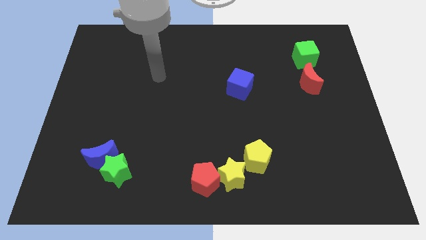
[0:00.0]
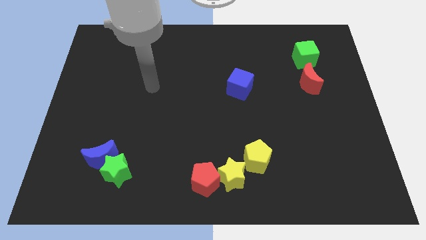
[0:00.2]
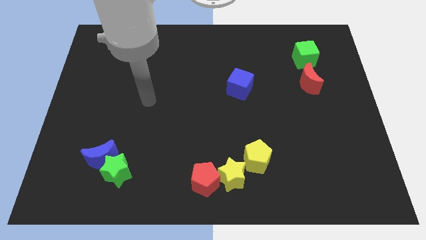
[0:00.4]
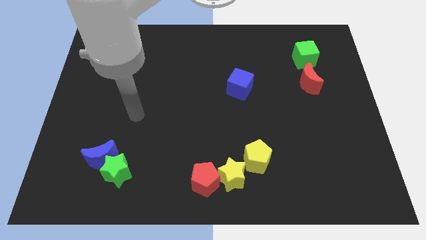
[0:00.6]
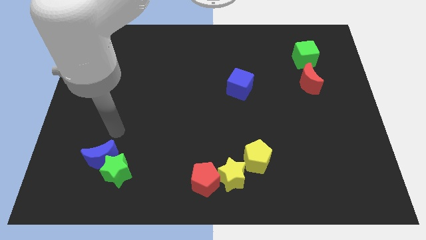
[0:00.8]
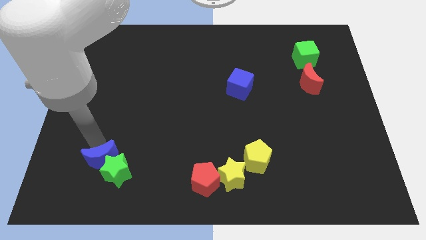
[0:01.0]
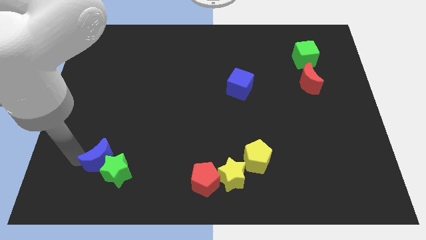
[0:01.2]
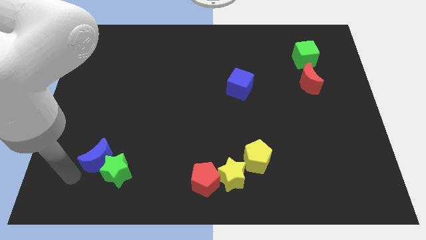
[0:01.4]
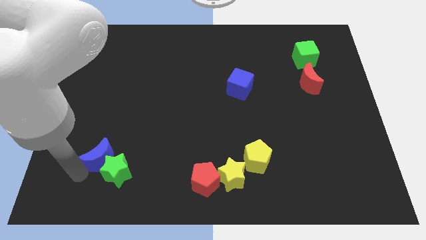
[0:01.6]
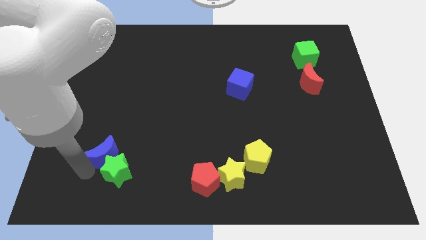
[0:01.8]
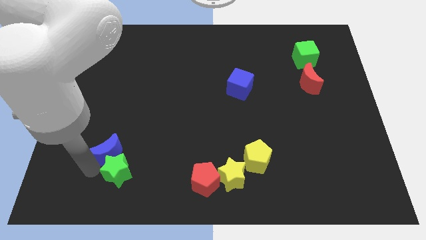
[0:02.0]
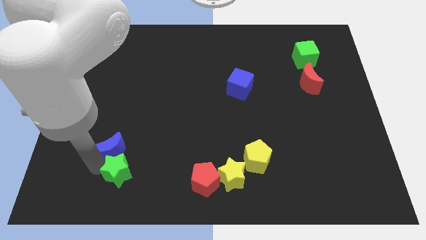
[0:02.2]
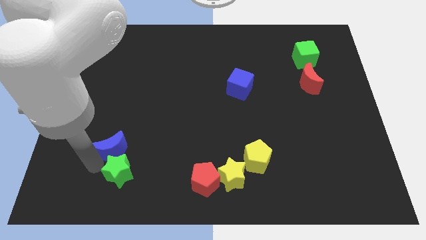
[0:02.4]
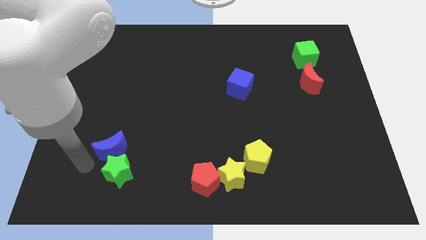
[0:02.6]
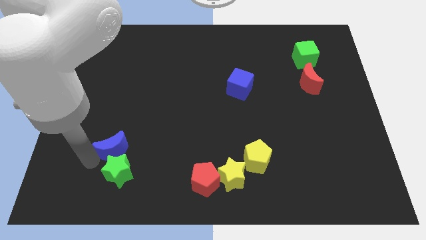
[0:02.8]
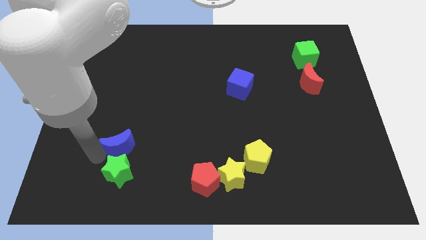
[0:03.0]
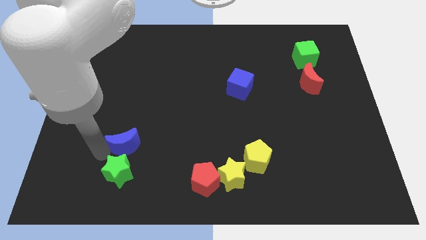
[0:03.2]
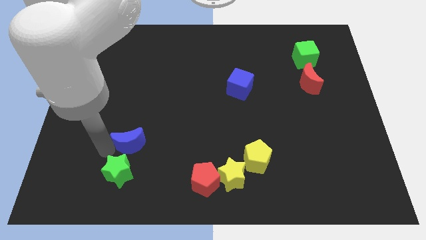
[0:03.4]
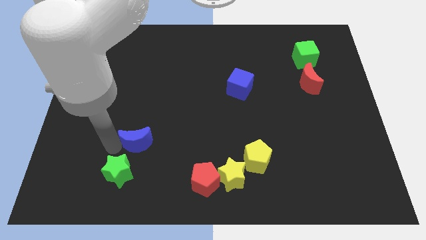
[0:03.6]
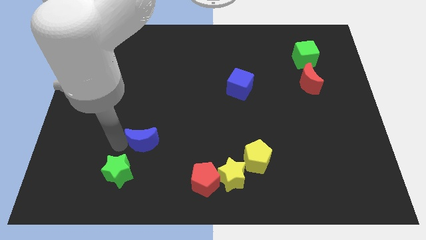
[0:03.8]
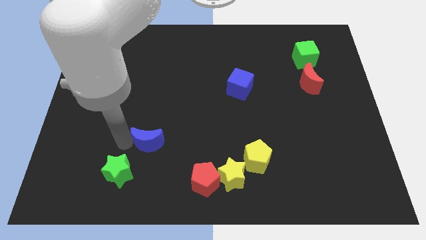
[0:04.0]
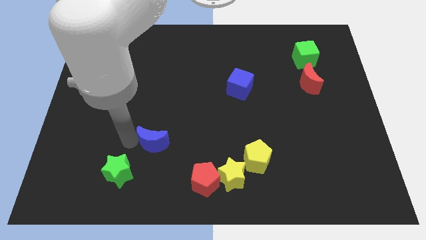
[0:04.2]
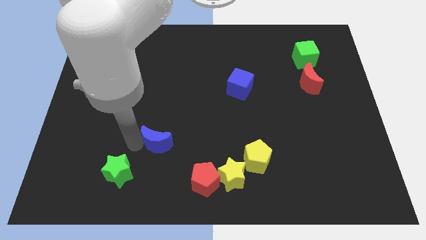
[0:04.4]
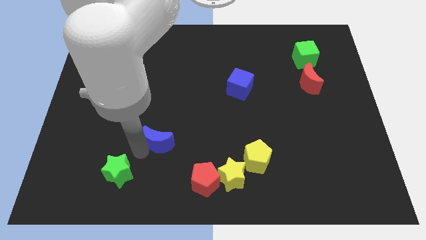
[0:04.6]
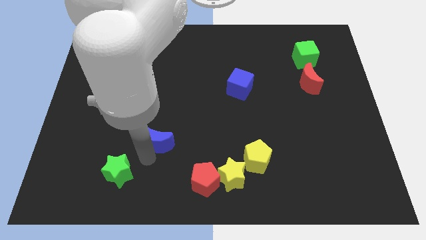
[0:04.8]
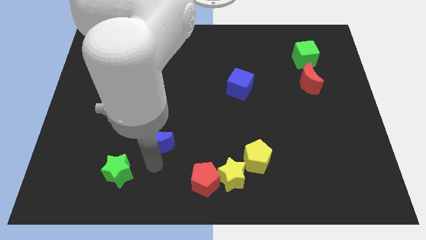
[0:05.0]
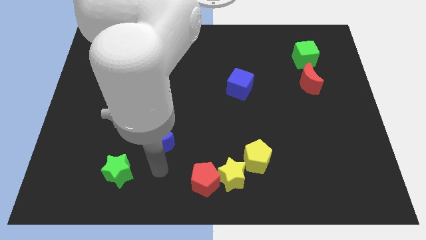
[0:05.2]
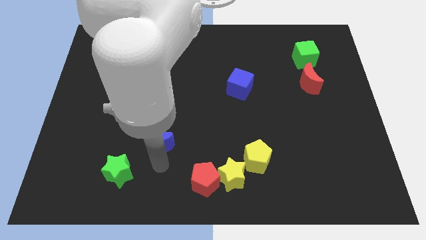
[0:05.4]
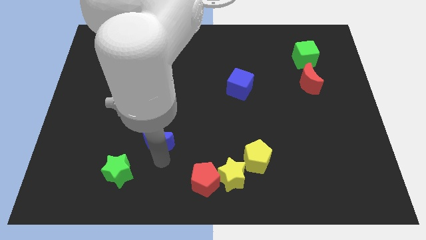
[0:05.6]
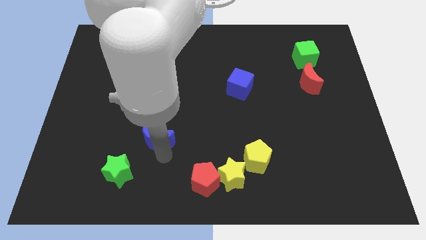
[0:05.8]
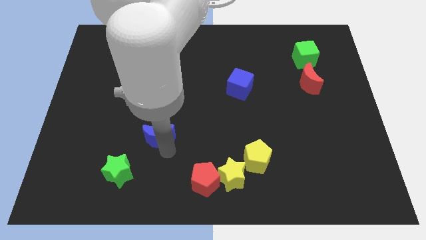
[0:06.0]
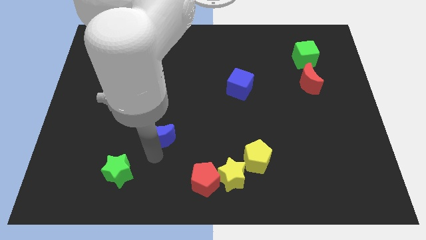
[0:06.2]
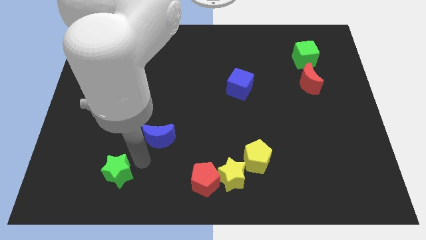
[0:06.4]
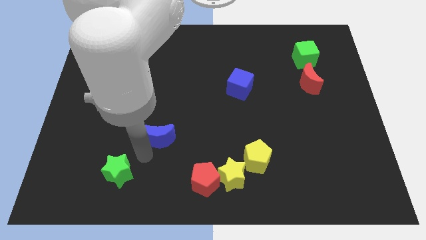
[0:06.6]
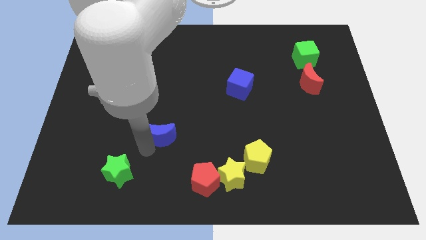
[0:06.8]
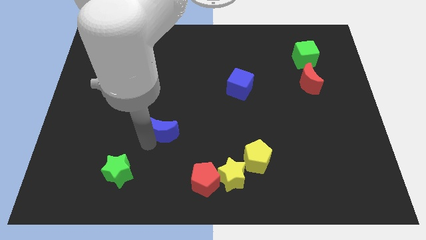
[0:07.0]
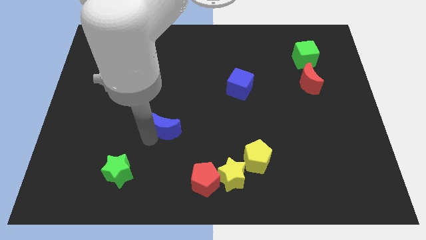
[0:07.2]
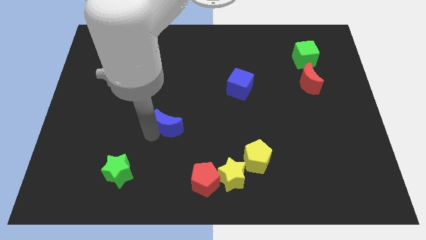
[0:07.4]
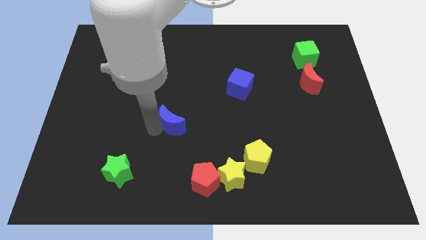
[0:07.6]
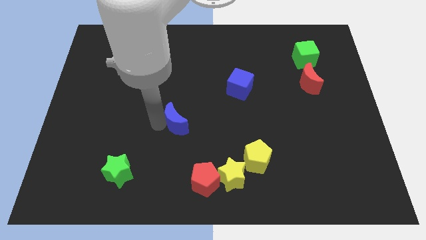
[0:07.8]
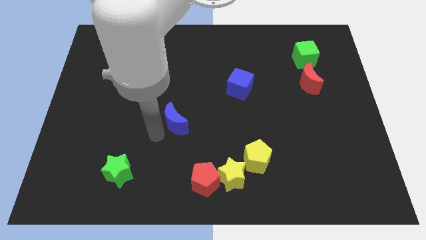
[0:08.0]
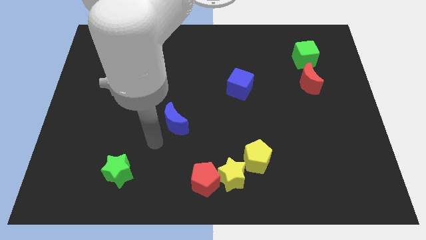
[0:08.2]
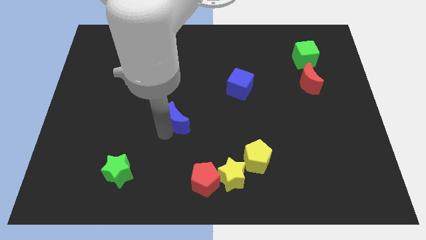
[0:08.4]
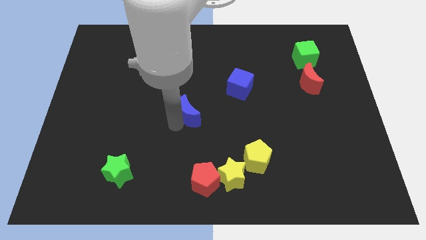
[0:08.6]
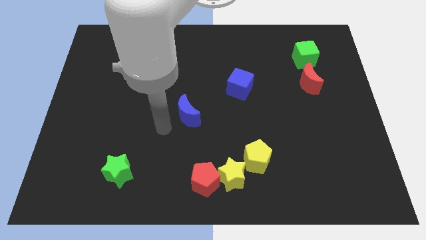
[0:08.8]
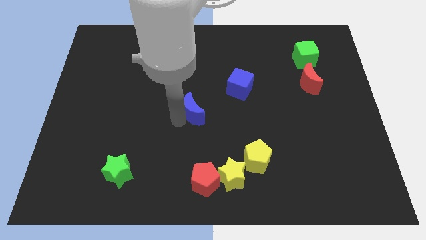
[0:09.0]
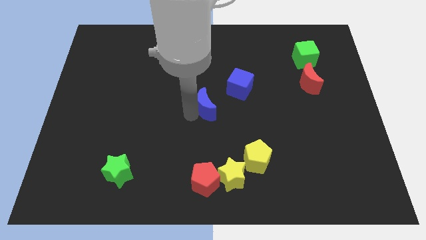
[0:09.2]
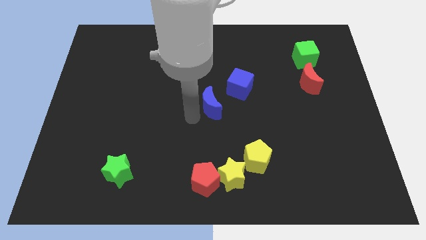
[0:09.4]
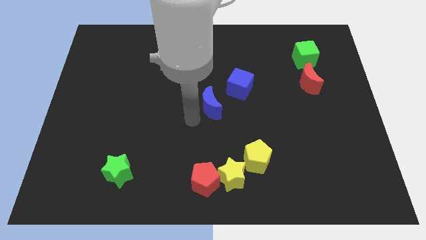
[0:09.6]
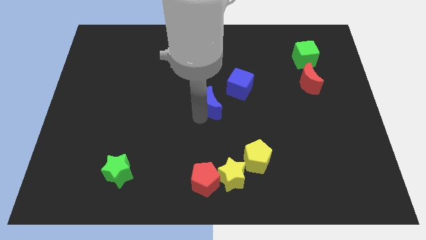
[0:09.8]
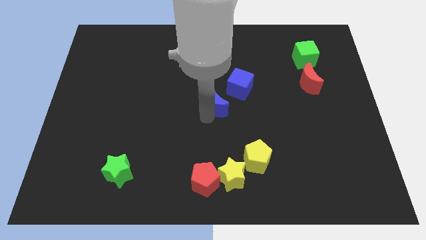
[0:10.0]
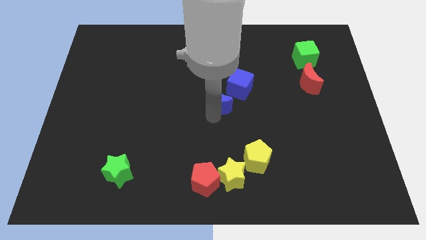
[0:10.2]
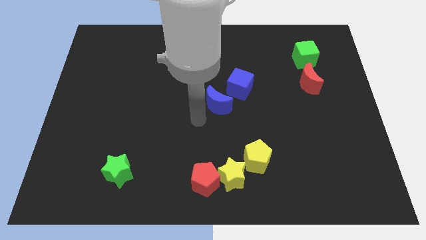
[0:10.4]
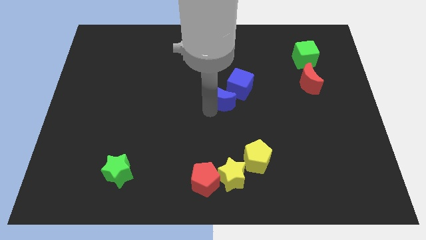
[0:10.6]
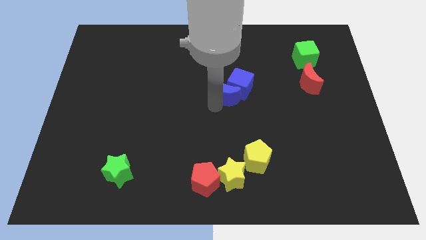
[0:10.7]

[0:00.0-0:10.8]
put the blue moon to the blue cube

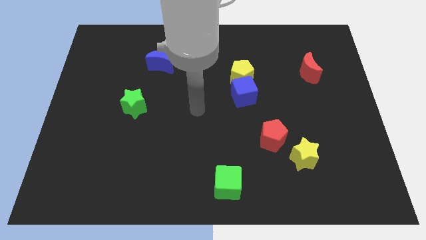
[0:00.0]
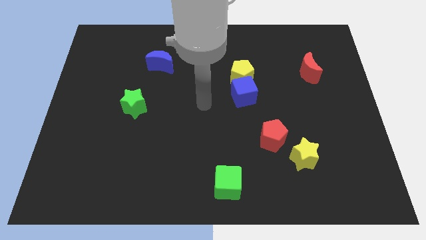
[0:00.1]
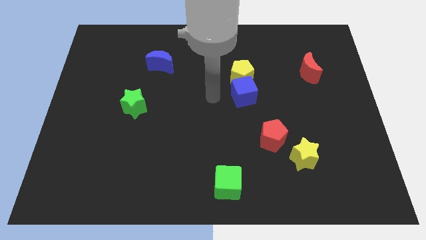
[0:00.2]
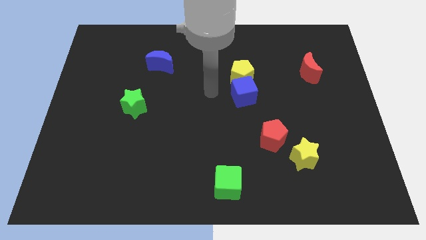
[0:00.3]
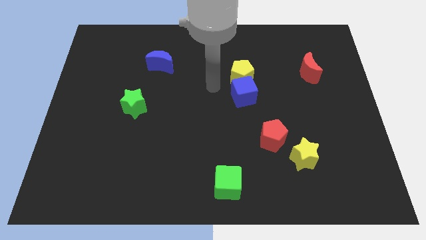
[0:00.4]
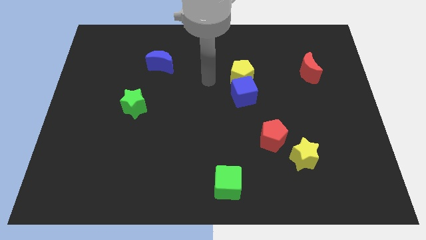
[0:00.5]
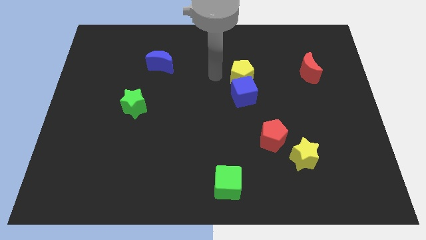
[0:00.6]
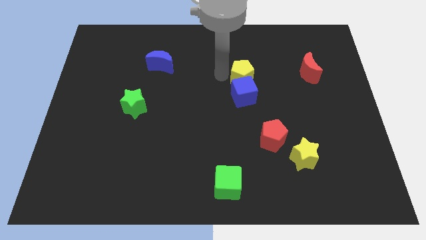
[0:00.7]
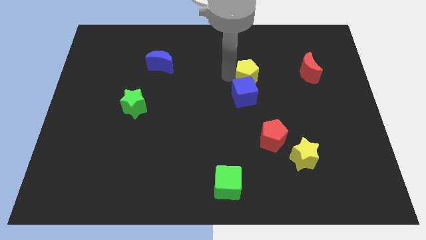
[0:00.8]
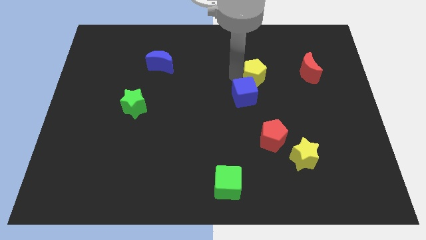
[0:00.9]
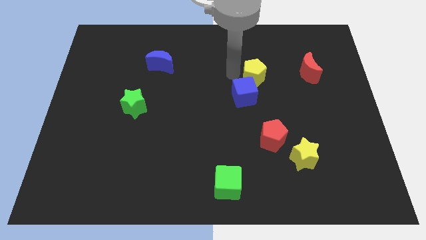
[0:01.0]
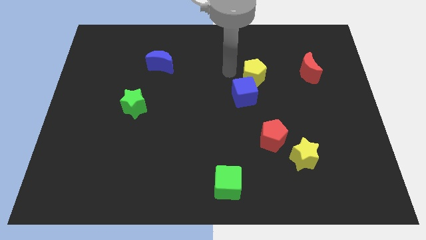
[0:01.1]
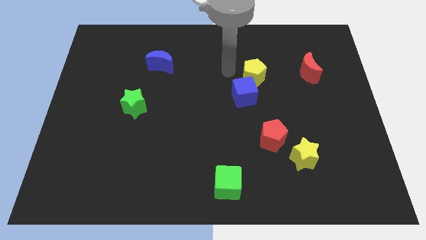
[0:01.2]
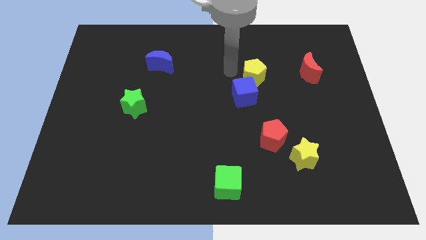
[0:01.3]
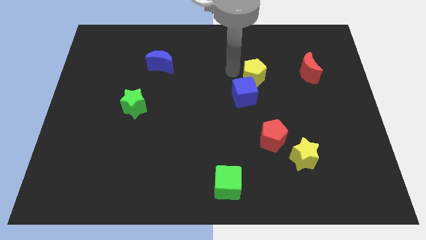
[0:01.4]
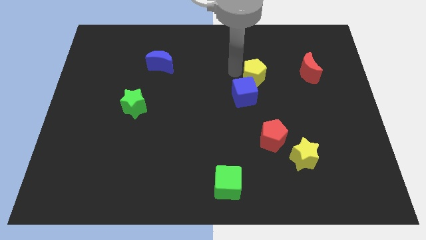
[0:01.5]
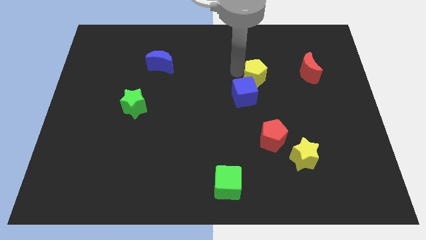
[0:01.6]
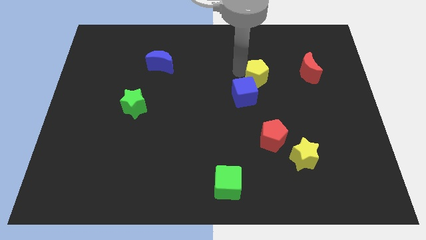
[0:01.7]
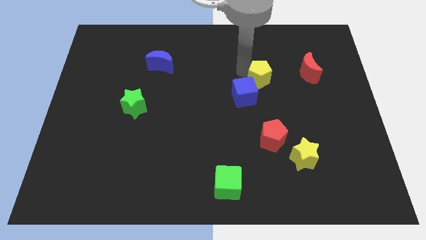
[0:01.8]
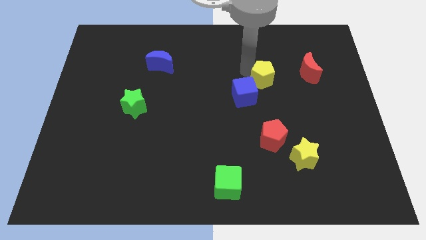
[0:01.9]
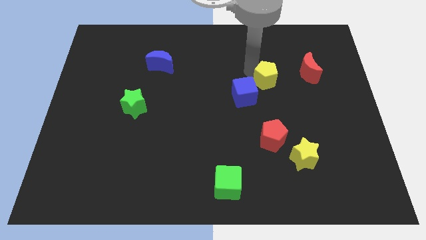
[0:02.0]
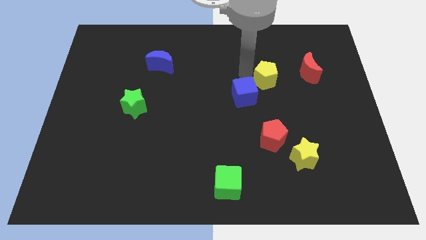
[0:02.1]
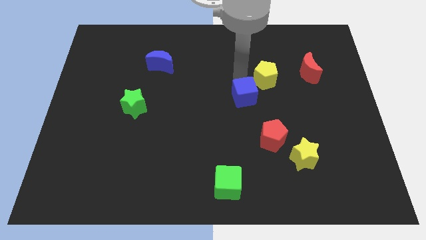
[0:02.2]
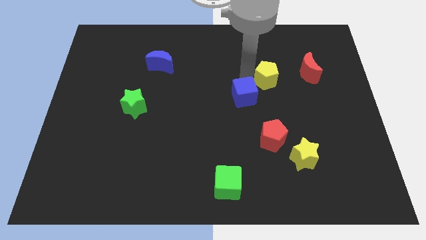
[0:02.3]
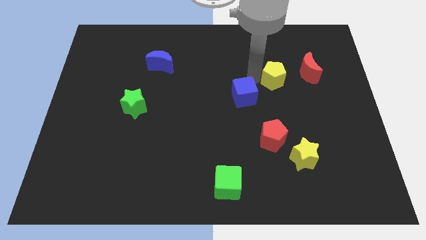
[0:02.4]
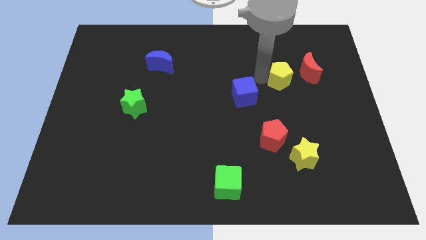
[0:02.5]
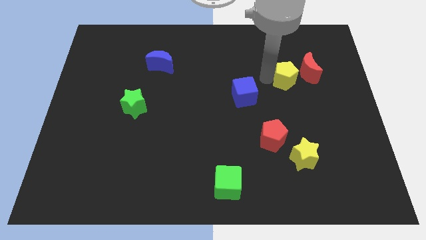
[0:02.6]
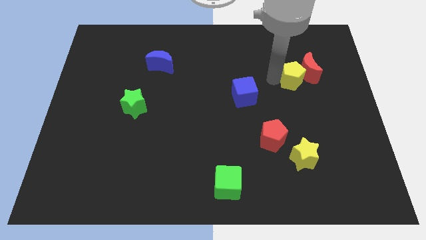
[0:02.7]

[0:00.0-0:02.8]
move the yellow pentagon to the red moon
